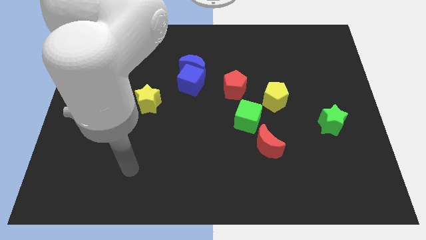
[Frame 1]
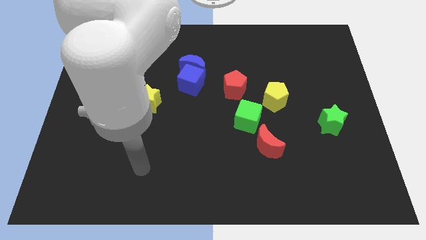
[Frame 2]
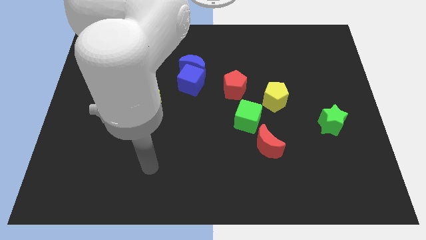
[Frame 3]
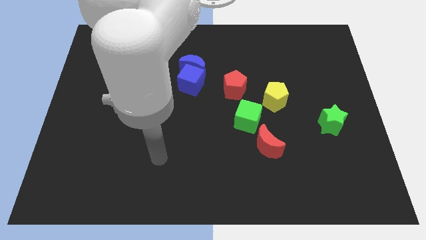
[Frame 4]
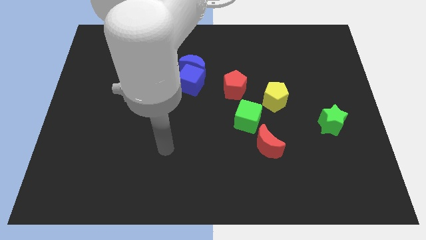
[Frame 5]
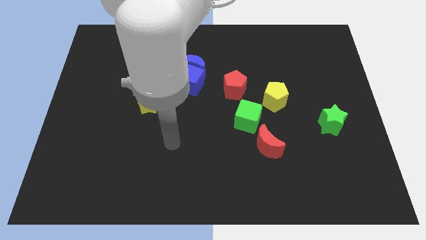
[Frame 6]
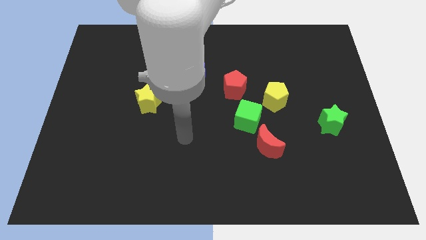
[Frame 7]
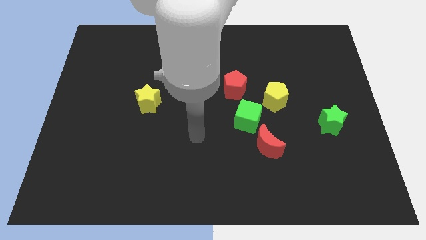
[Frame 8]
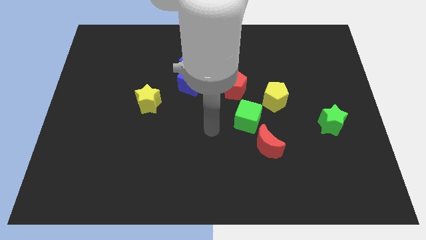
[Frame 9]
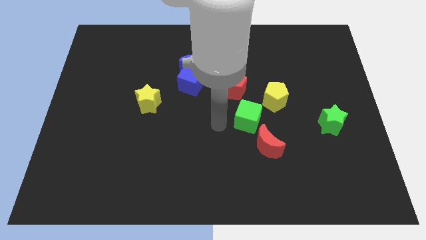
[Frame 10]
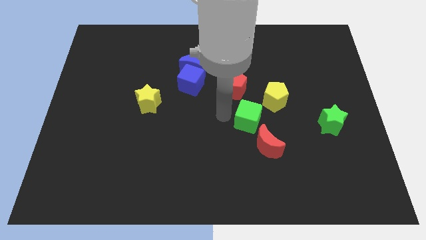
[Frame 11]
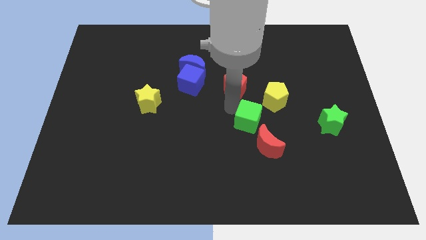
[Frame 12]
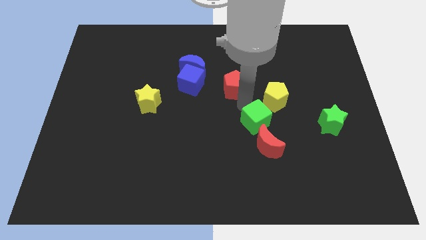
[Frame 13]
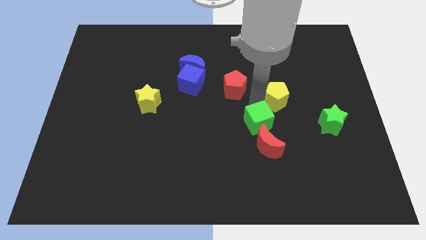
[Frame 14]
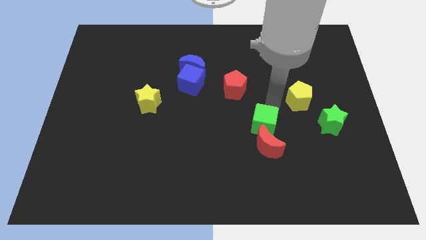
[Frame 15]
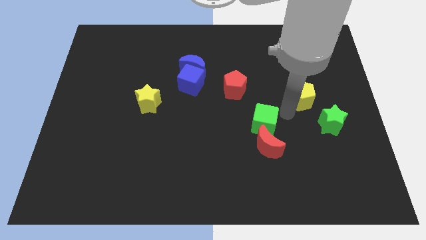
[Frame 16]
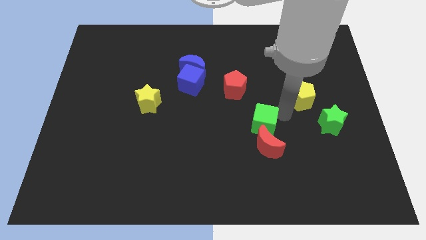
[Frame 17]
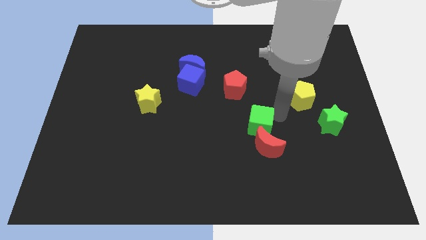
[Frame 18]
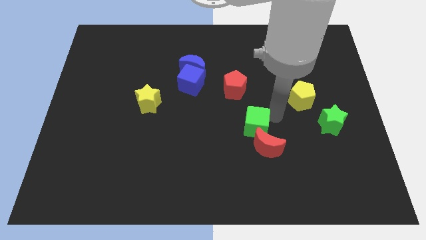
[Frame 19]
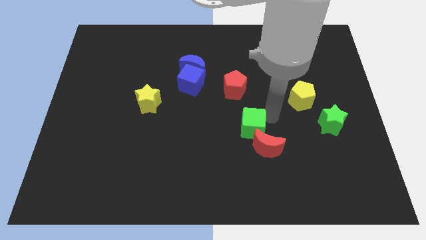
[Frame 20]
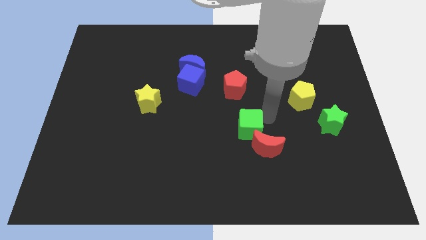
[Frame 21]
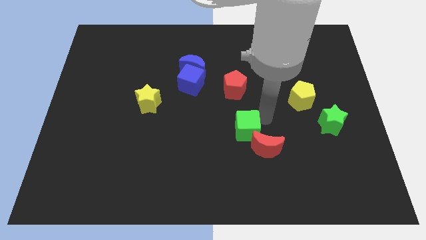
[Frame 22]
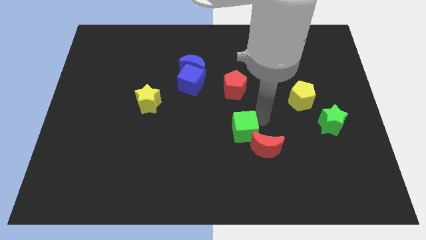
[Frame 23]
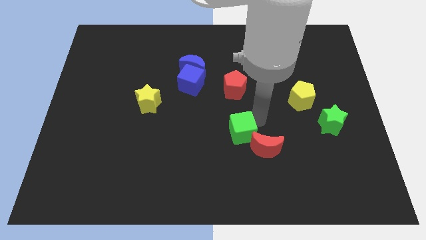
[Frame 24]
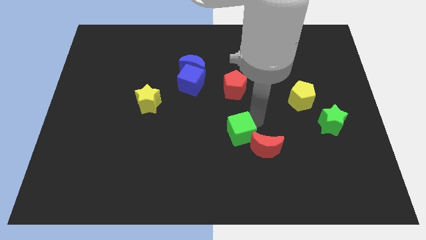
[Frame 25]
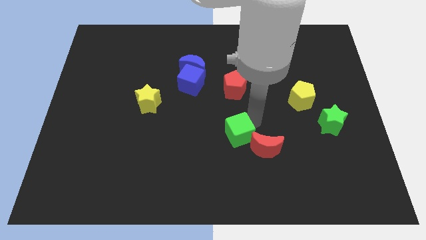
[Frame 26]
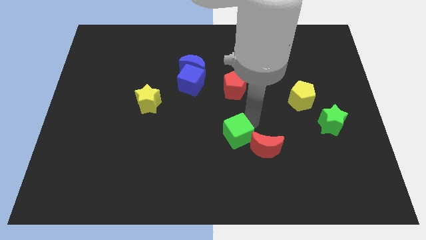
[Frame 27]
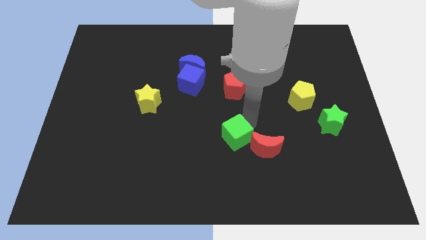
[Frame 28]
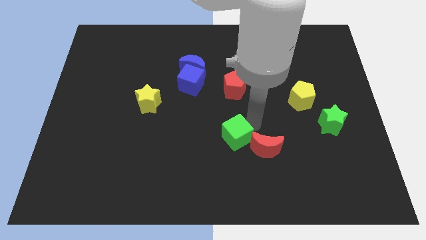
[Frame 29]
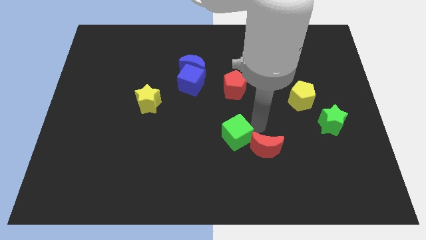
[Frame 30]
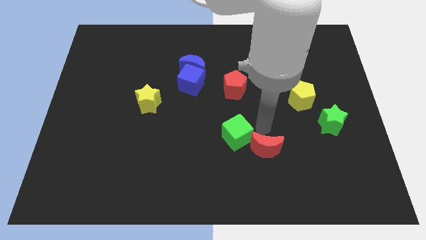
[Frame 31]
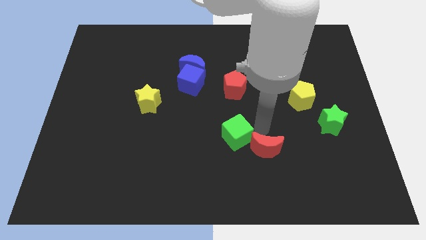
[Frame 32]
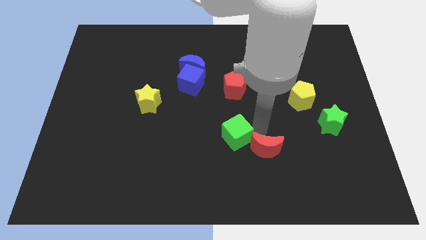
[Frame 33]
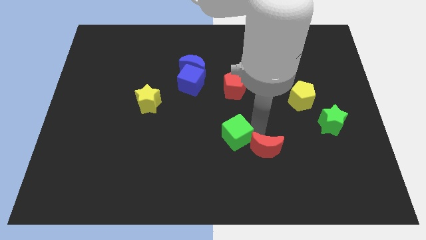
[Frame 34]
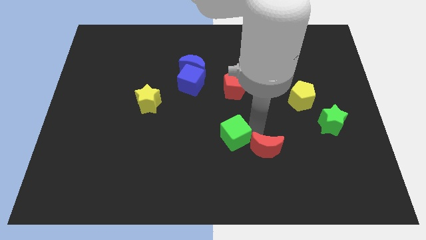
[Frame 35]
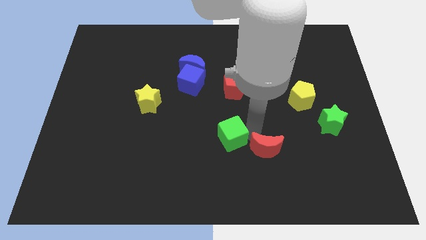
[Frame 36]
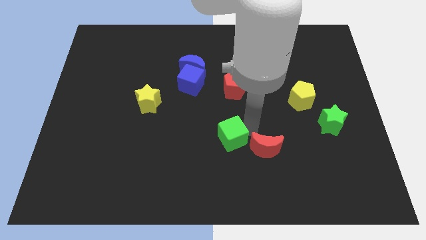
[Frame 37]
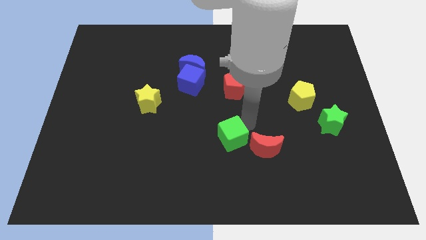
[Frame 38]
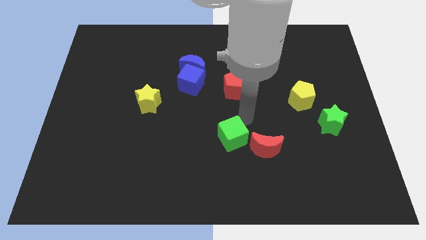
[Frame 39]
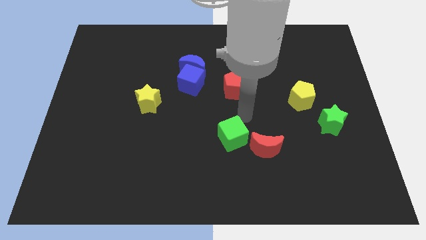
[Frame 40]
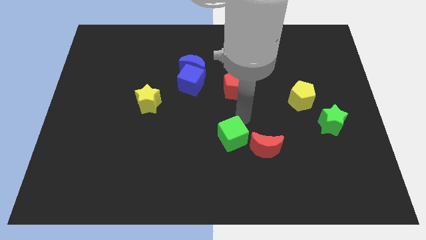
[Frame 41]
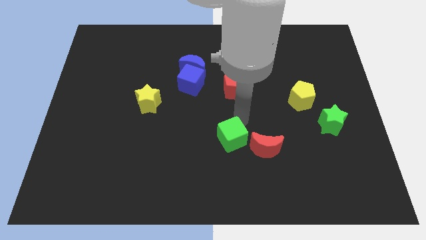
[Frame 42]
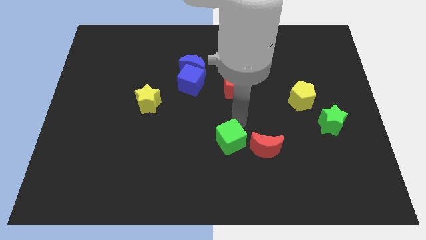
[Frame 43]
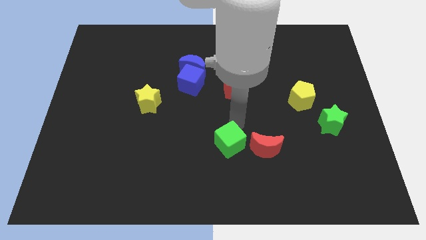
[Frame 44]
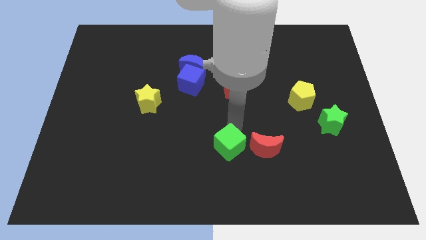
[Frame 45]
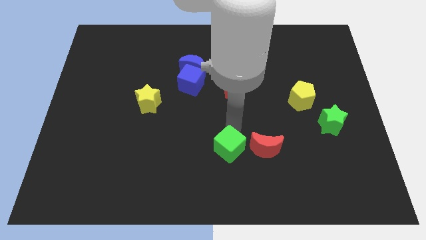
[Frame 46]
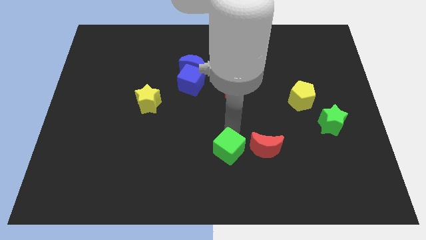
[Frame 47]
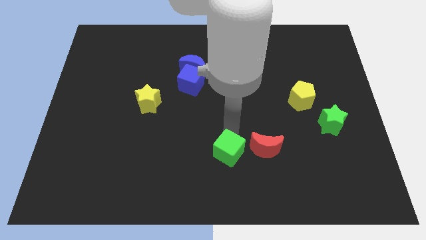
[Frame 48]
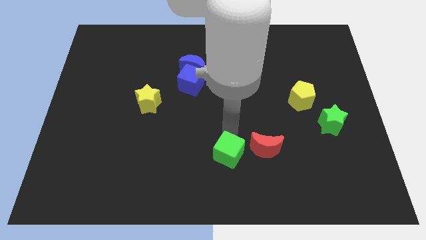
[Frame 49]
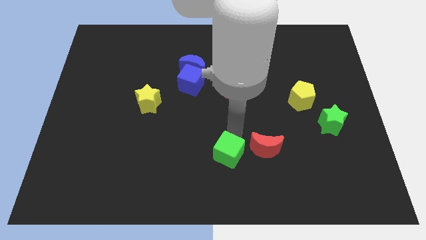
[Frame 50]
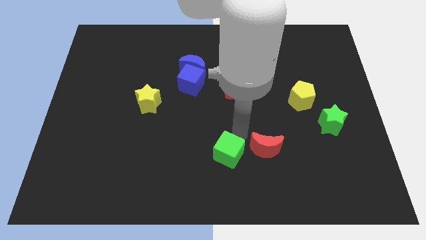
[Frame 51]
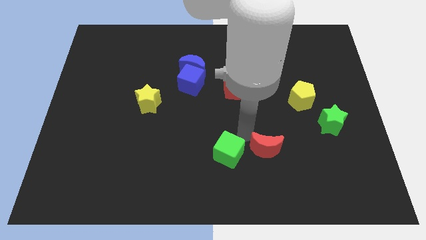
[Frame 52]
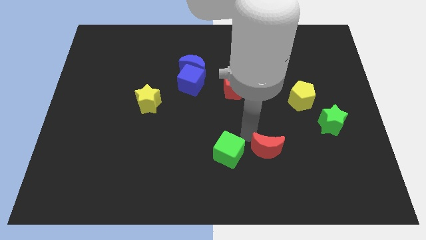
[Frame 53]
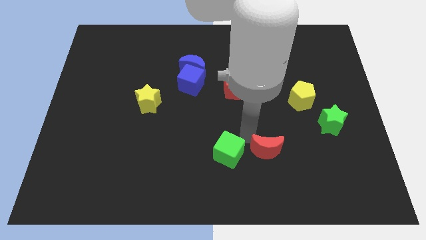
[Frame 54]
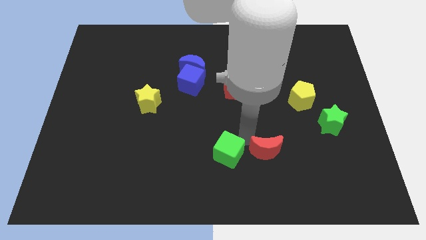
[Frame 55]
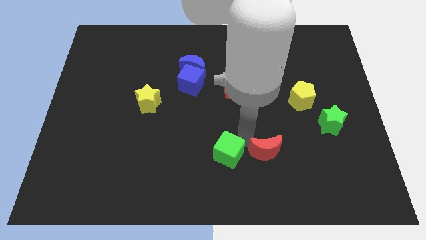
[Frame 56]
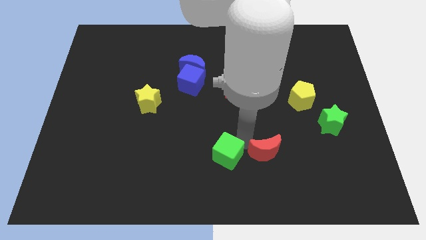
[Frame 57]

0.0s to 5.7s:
move the green cube to the bottom
